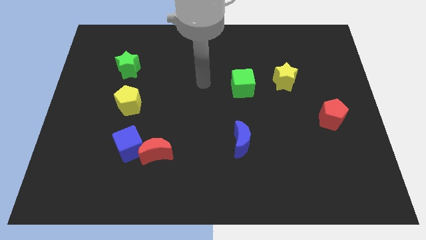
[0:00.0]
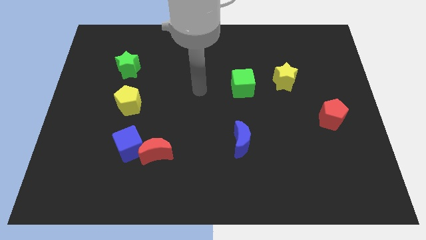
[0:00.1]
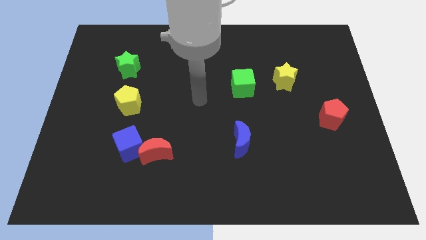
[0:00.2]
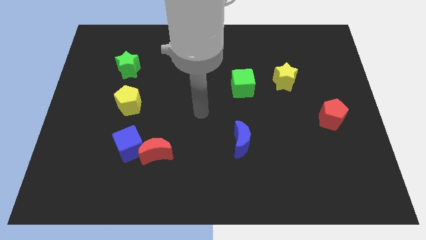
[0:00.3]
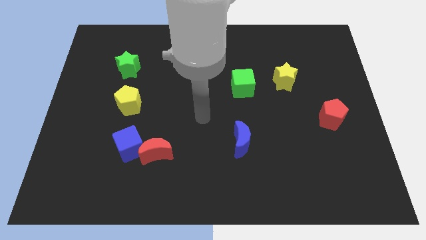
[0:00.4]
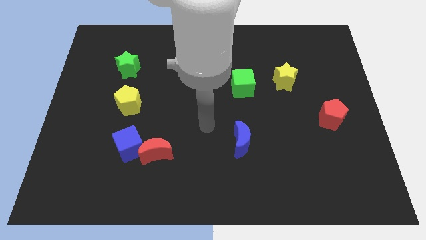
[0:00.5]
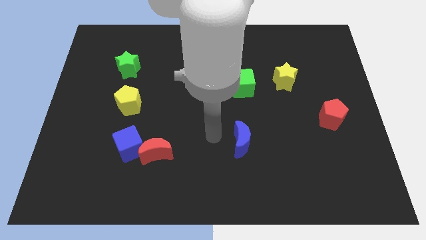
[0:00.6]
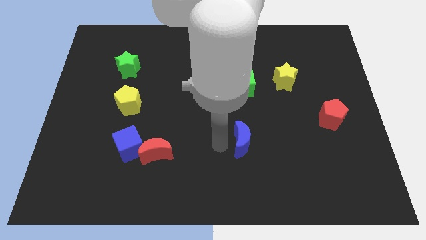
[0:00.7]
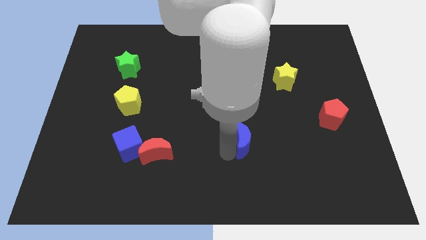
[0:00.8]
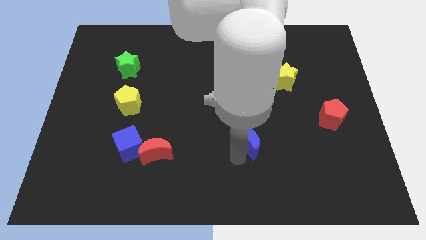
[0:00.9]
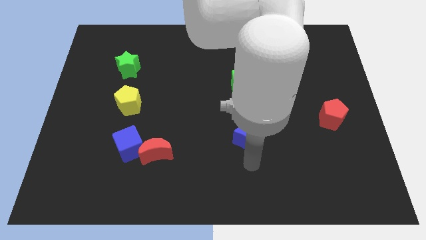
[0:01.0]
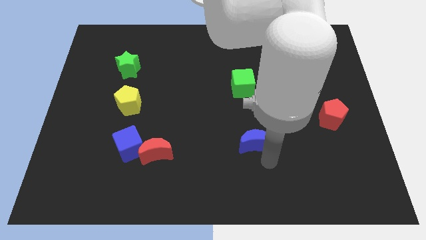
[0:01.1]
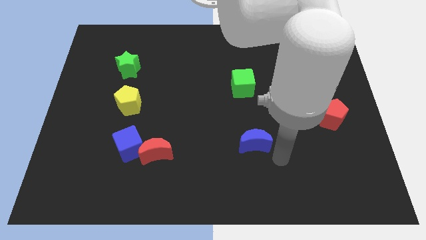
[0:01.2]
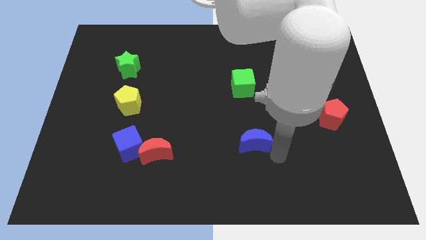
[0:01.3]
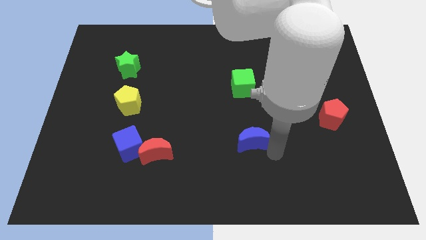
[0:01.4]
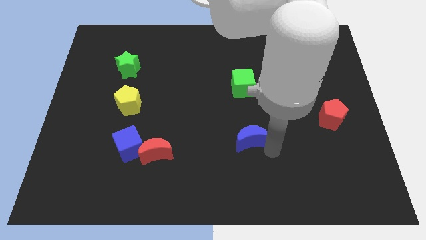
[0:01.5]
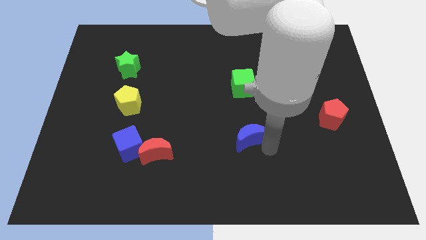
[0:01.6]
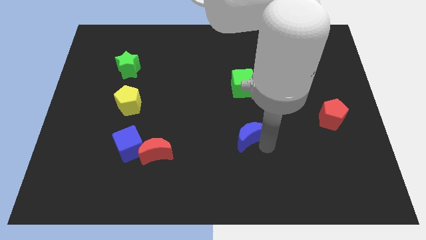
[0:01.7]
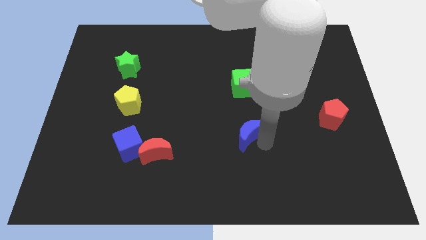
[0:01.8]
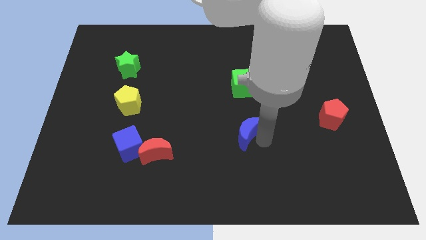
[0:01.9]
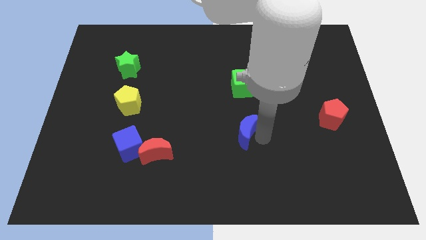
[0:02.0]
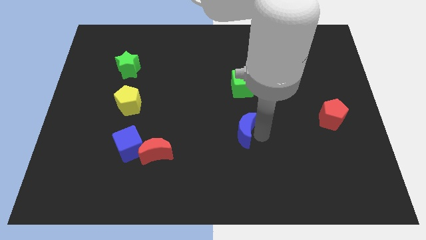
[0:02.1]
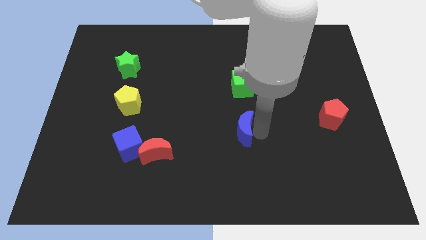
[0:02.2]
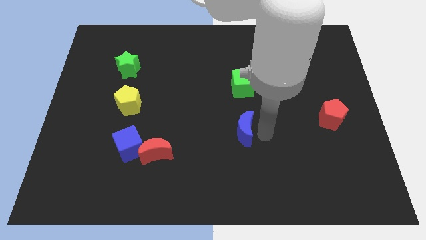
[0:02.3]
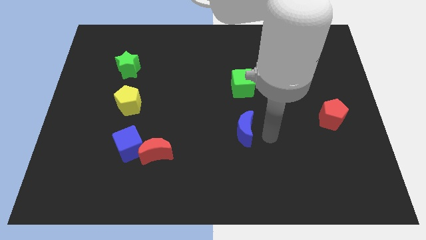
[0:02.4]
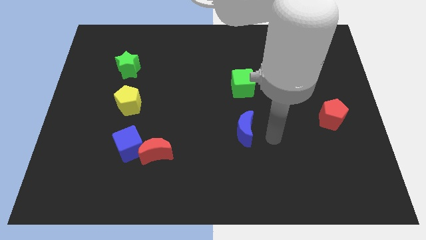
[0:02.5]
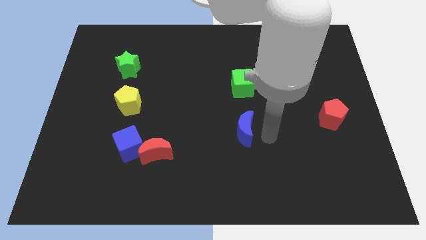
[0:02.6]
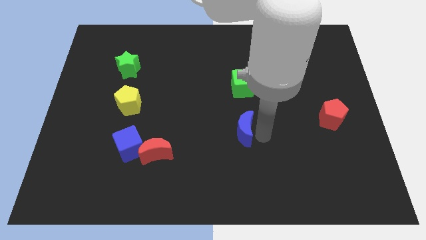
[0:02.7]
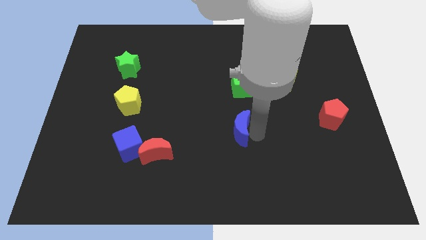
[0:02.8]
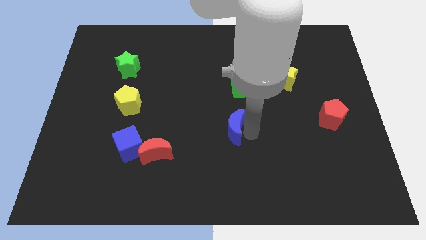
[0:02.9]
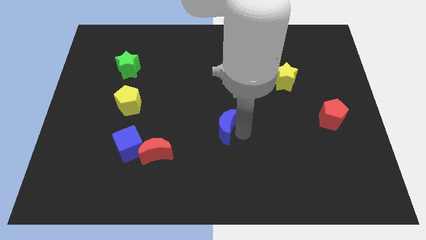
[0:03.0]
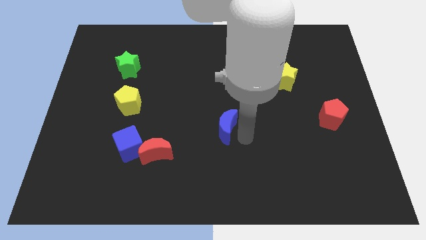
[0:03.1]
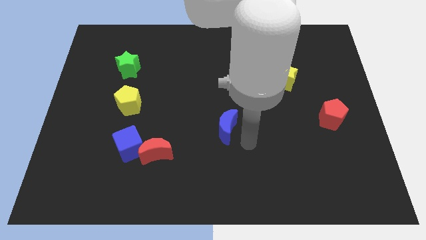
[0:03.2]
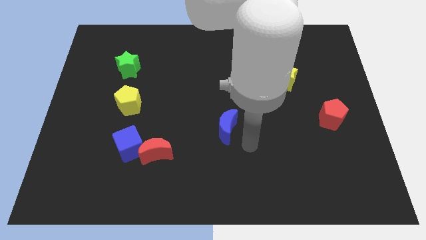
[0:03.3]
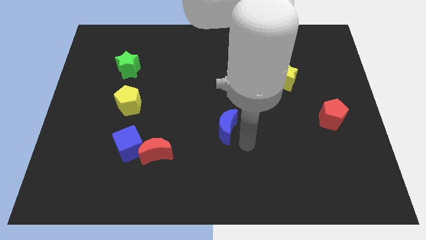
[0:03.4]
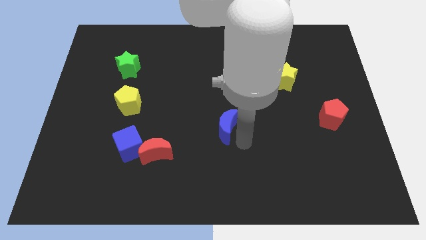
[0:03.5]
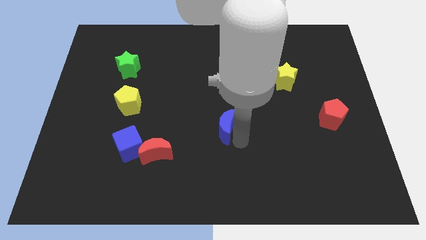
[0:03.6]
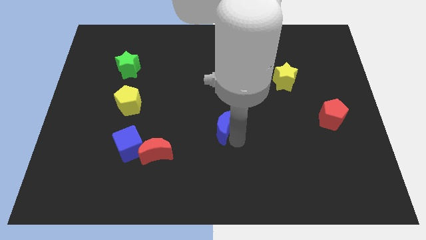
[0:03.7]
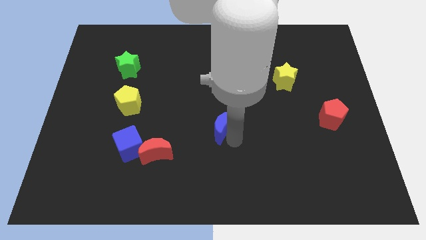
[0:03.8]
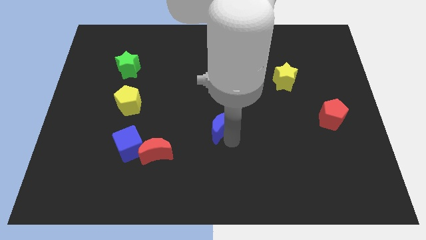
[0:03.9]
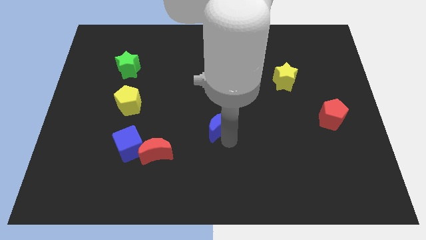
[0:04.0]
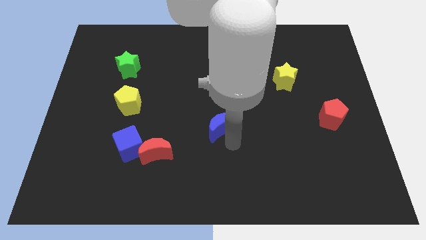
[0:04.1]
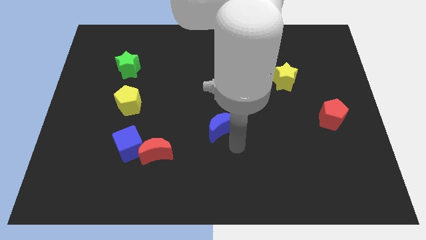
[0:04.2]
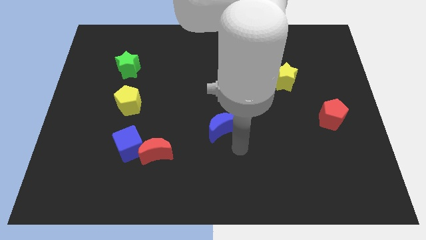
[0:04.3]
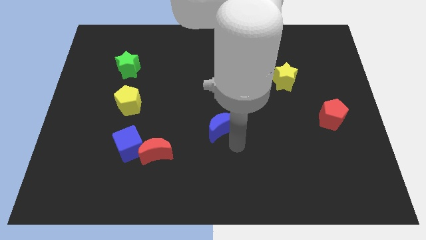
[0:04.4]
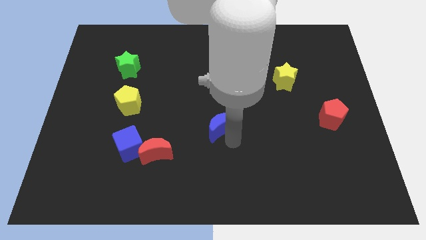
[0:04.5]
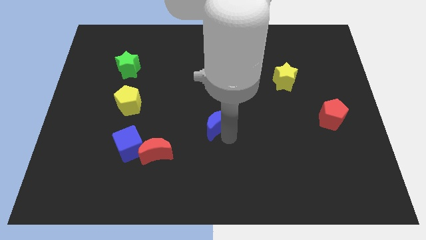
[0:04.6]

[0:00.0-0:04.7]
slide the blue moon up and then to the left a bit

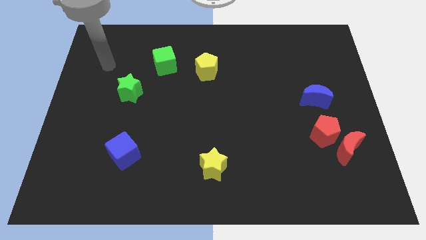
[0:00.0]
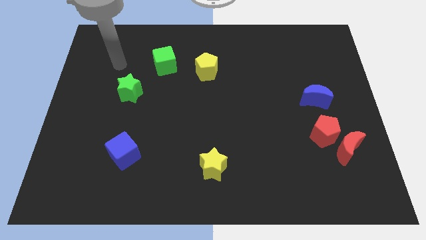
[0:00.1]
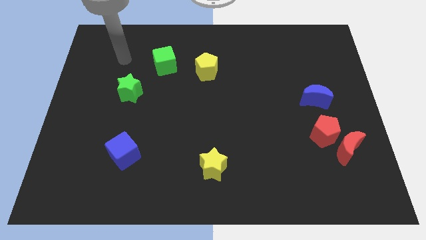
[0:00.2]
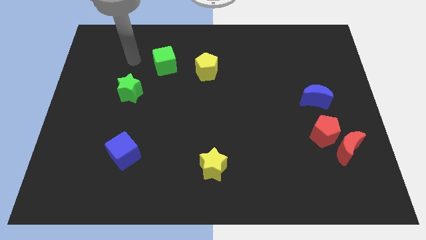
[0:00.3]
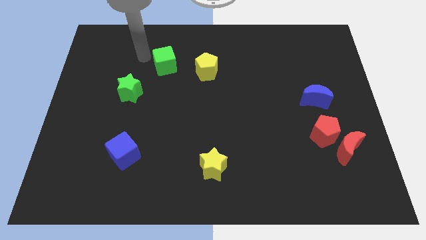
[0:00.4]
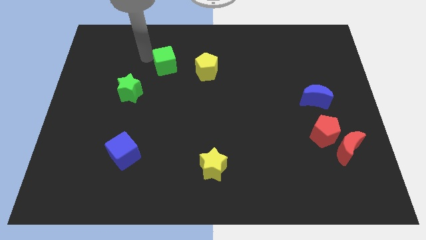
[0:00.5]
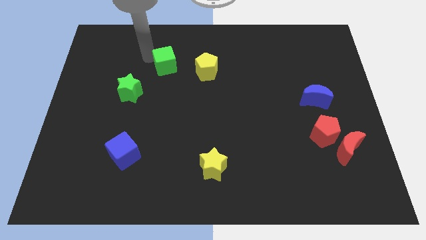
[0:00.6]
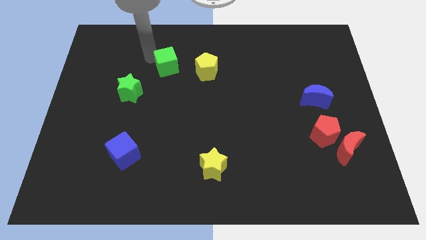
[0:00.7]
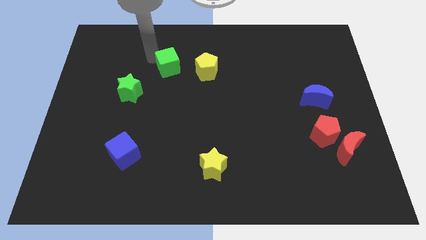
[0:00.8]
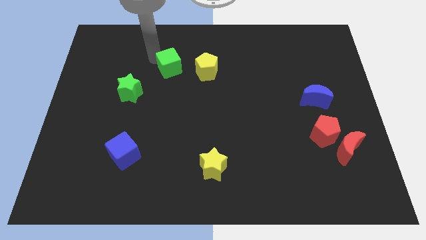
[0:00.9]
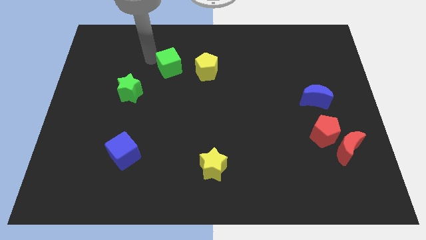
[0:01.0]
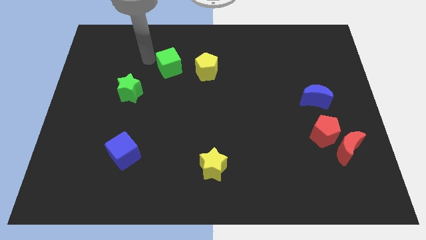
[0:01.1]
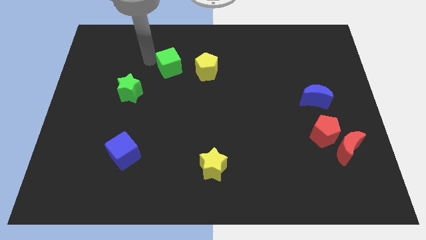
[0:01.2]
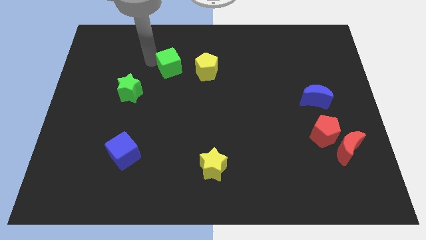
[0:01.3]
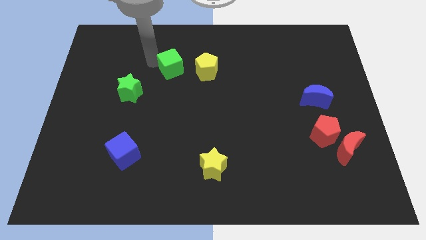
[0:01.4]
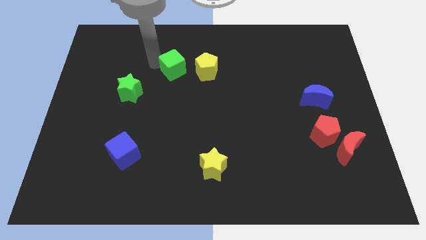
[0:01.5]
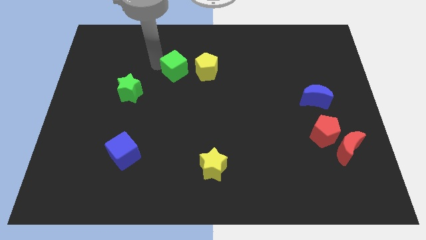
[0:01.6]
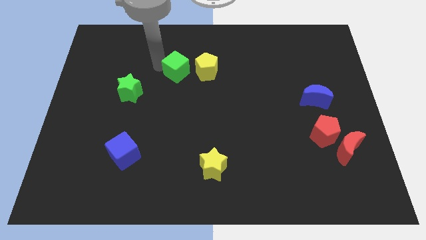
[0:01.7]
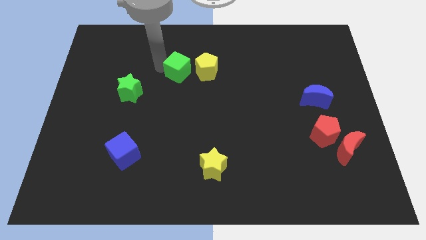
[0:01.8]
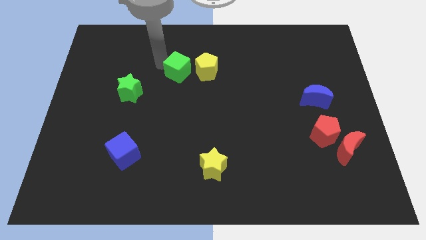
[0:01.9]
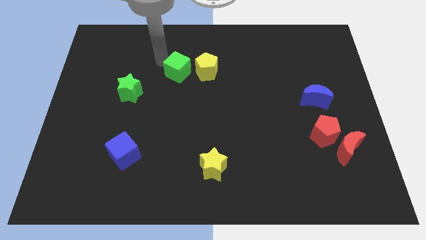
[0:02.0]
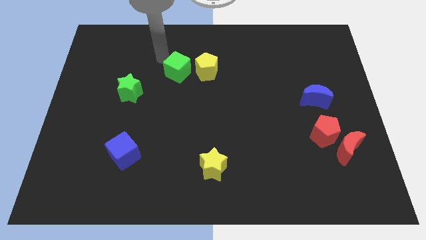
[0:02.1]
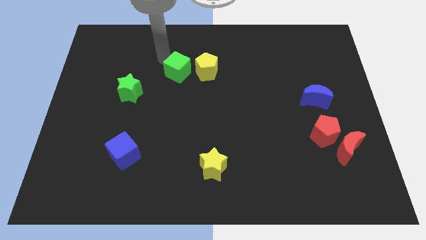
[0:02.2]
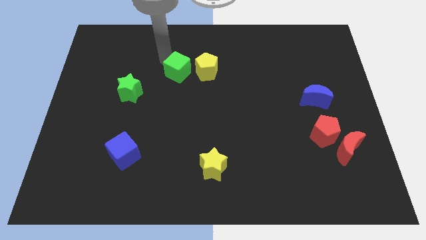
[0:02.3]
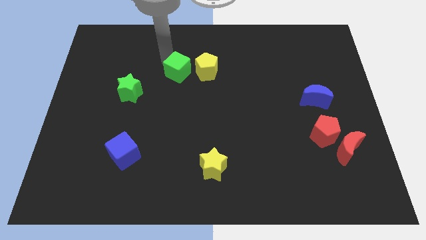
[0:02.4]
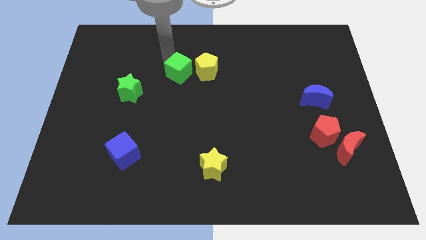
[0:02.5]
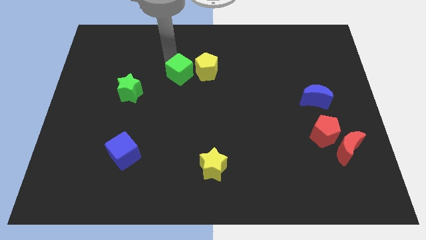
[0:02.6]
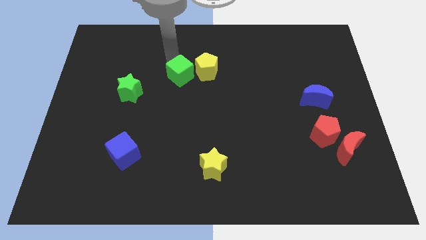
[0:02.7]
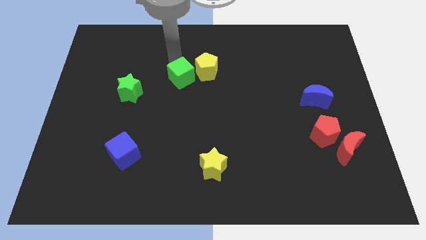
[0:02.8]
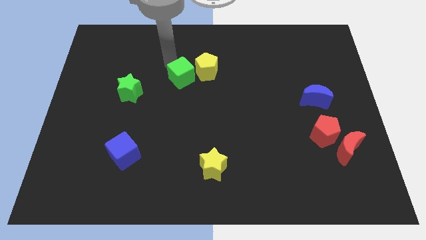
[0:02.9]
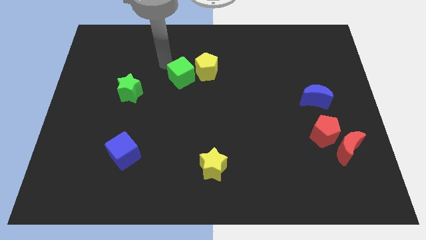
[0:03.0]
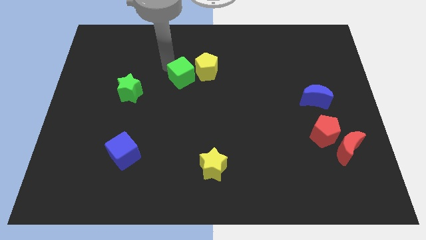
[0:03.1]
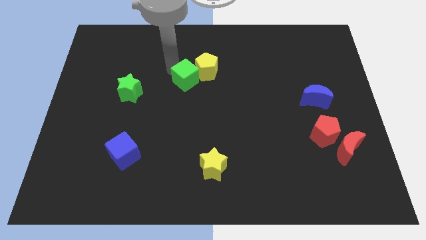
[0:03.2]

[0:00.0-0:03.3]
slightly slide the green cube downwards and to the right diagonally

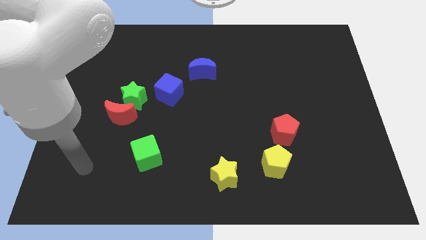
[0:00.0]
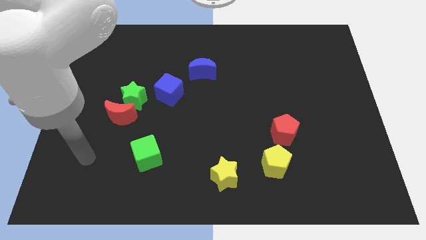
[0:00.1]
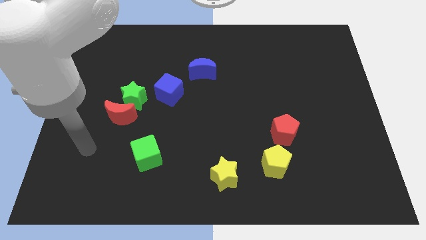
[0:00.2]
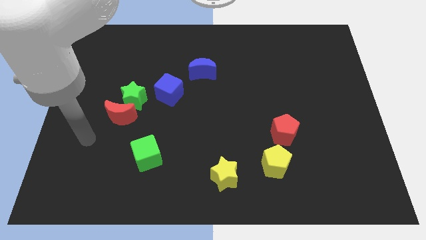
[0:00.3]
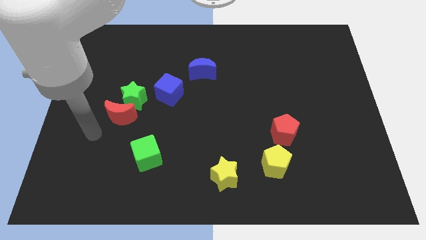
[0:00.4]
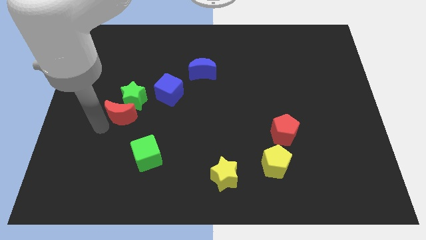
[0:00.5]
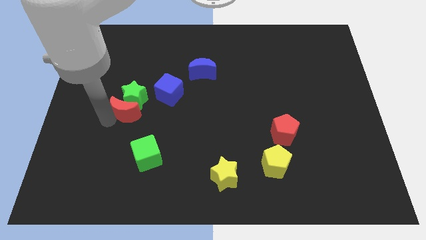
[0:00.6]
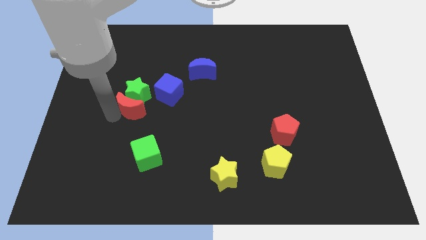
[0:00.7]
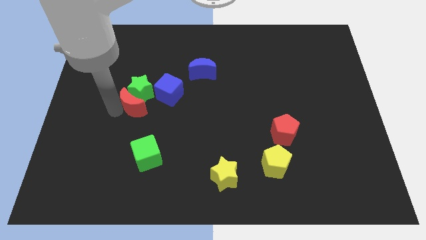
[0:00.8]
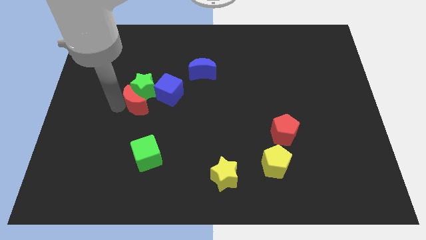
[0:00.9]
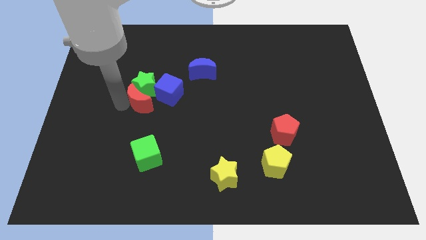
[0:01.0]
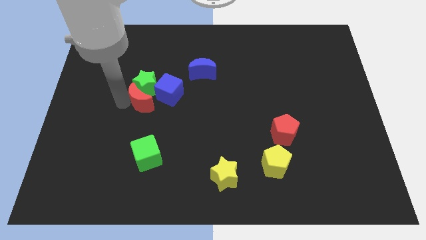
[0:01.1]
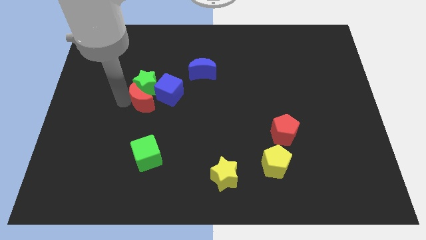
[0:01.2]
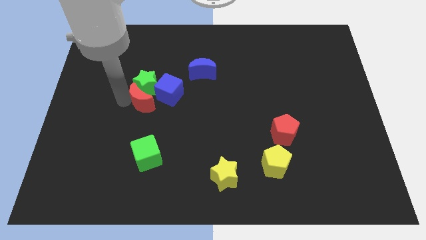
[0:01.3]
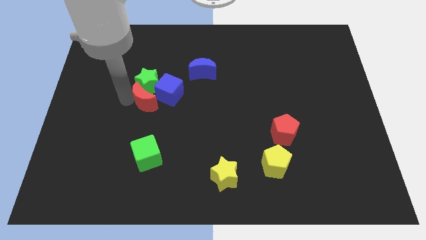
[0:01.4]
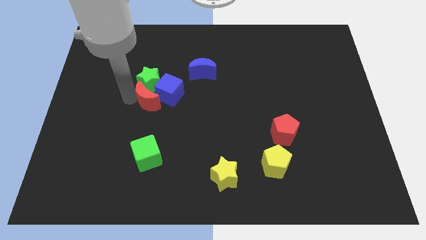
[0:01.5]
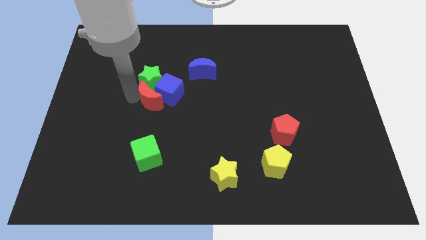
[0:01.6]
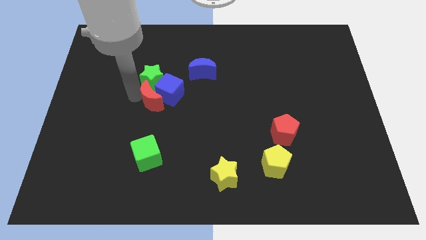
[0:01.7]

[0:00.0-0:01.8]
slightly move the green star diagonally up and right
